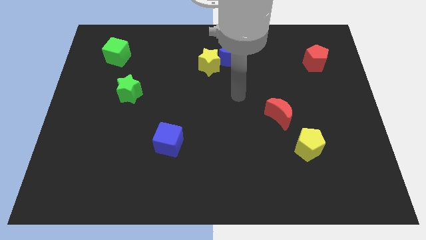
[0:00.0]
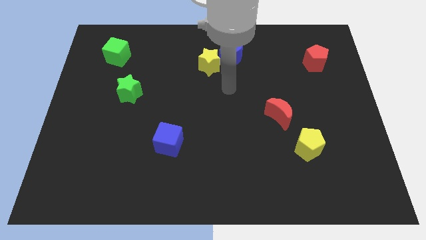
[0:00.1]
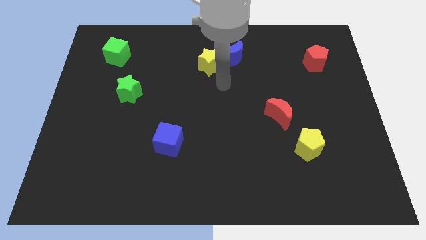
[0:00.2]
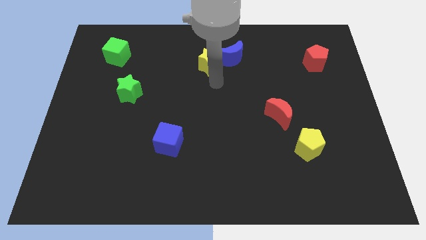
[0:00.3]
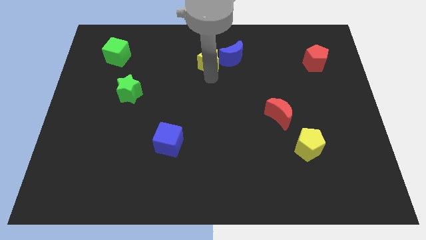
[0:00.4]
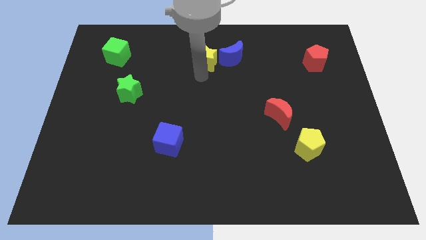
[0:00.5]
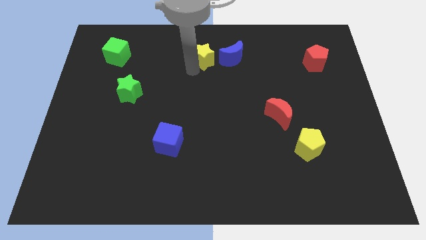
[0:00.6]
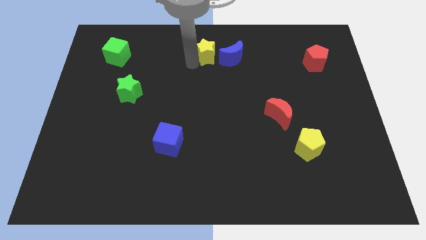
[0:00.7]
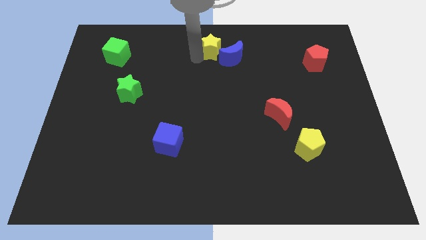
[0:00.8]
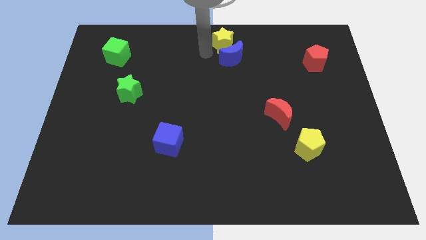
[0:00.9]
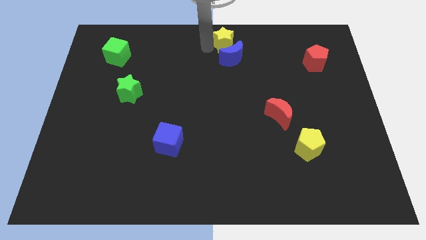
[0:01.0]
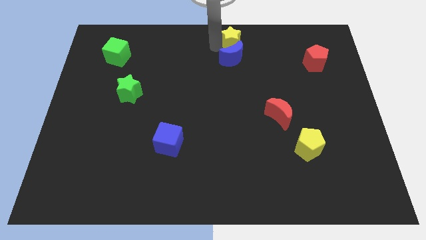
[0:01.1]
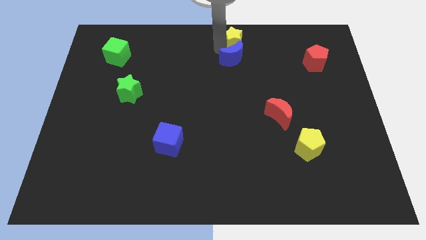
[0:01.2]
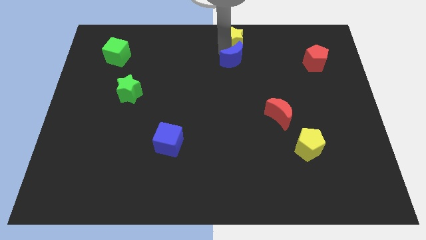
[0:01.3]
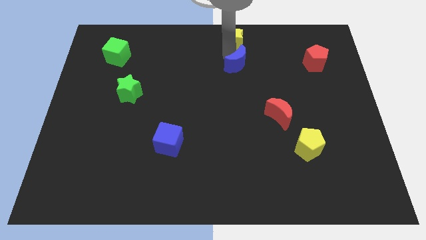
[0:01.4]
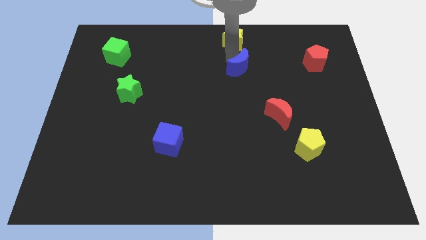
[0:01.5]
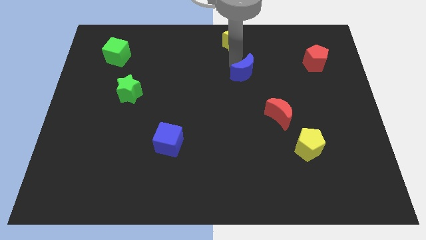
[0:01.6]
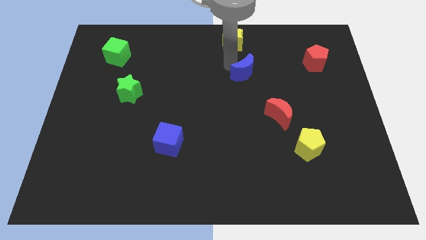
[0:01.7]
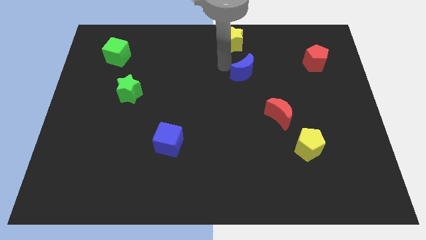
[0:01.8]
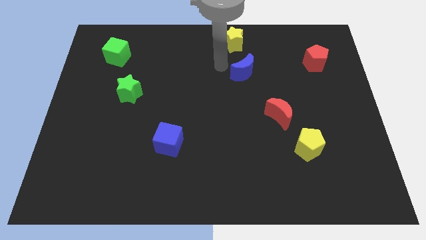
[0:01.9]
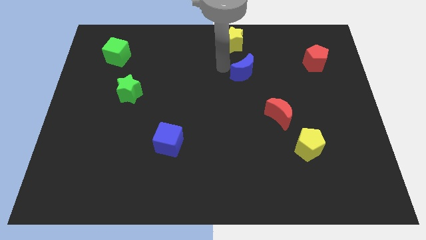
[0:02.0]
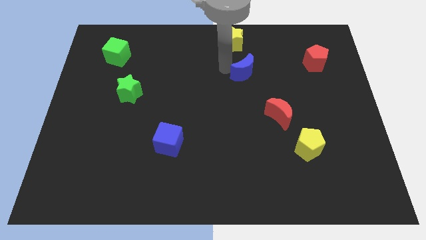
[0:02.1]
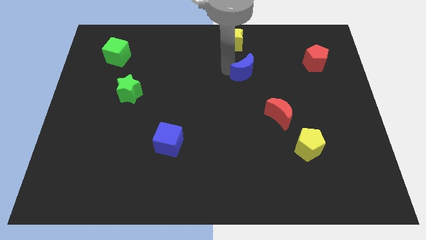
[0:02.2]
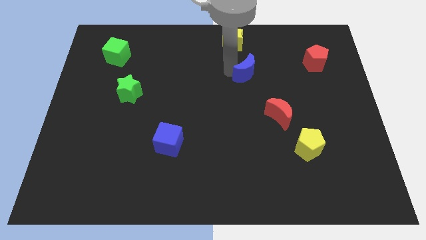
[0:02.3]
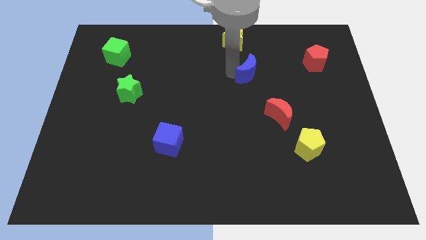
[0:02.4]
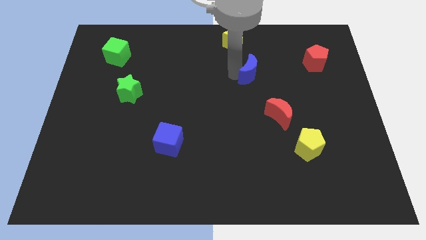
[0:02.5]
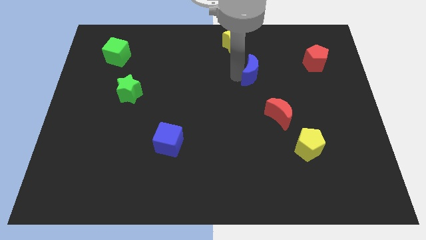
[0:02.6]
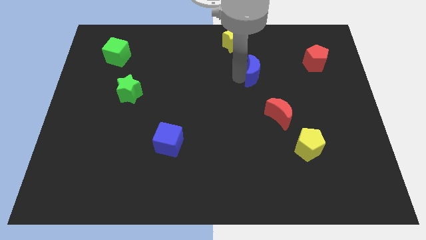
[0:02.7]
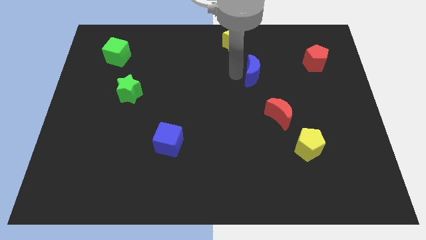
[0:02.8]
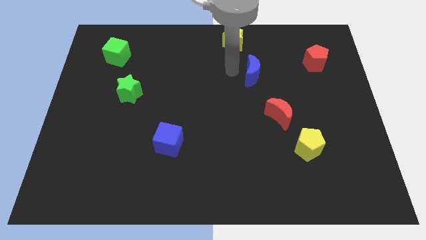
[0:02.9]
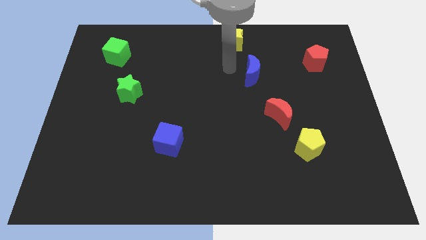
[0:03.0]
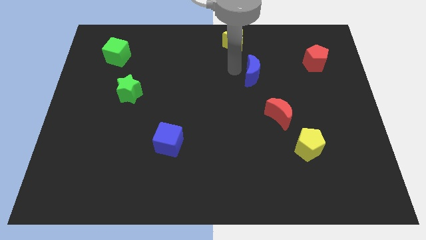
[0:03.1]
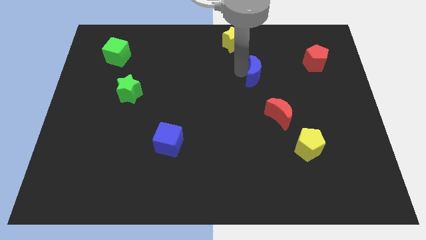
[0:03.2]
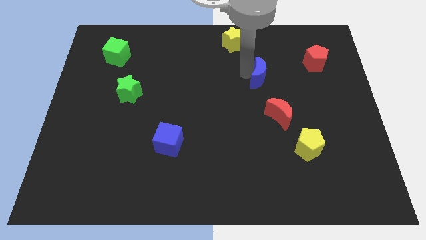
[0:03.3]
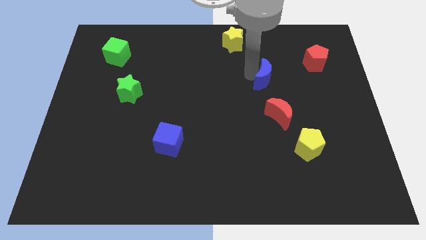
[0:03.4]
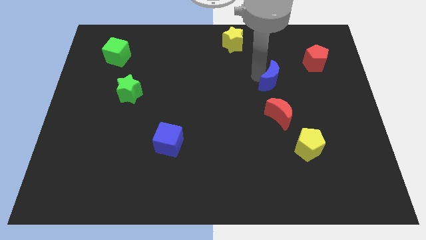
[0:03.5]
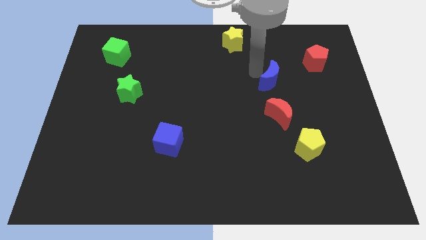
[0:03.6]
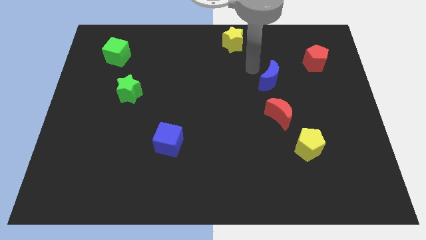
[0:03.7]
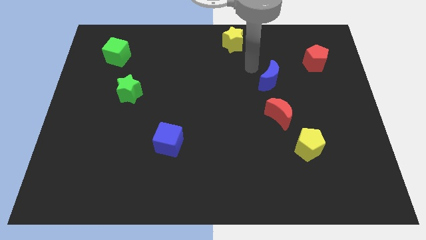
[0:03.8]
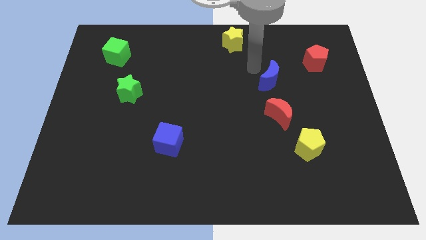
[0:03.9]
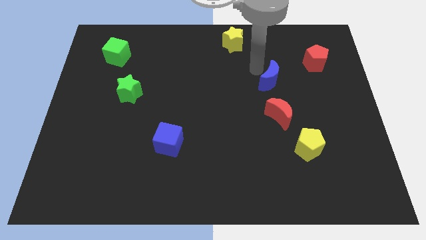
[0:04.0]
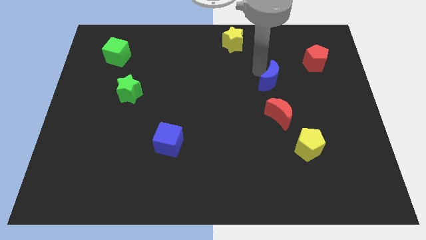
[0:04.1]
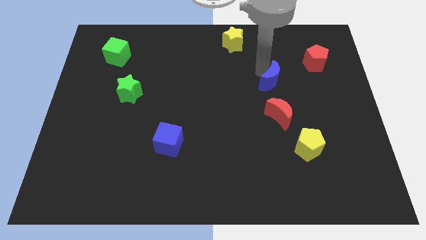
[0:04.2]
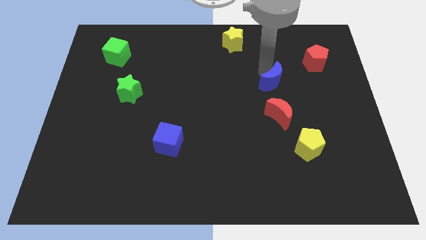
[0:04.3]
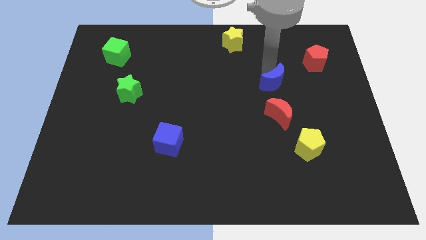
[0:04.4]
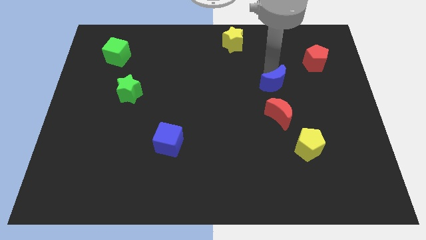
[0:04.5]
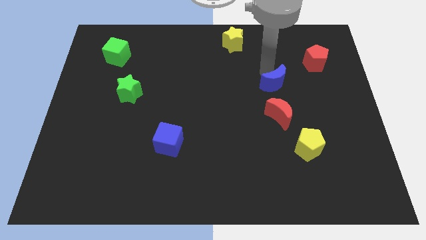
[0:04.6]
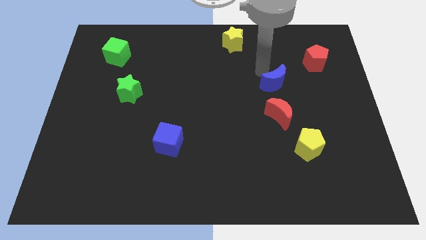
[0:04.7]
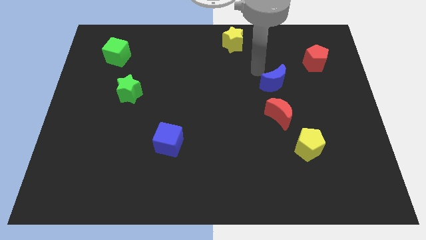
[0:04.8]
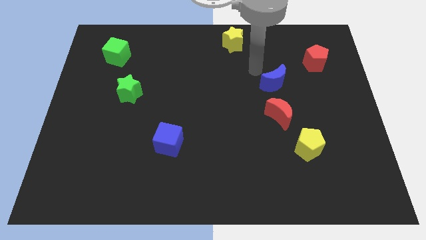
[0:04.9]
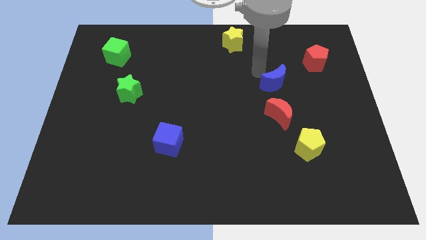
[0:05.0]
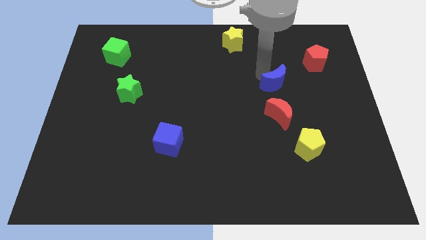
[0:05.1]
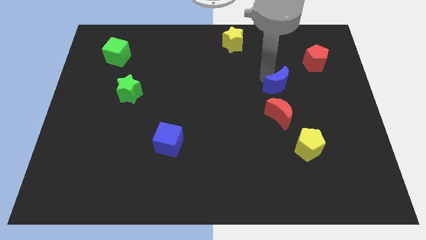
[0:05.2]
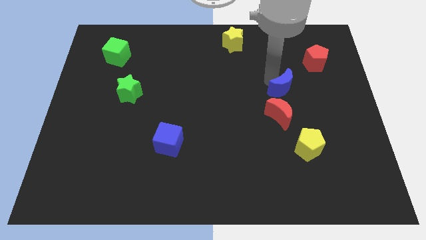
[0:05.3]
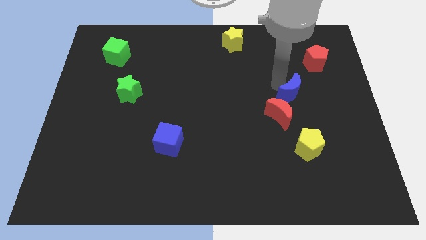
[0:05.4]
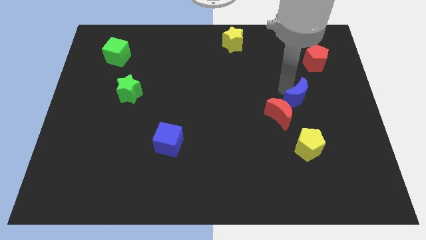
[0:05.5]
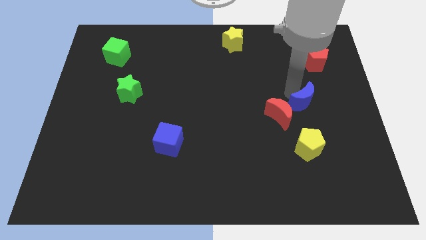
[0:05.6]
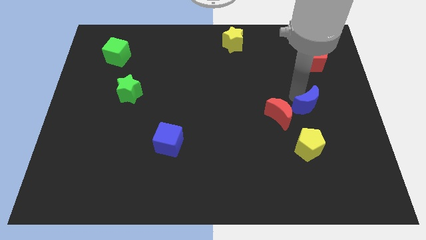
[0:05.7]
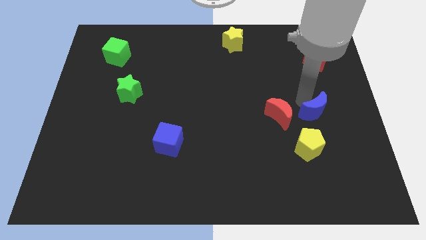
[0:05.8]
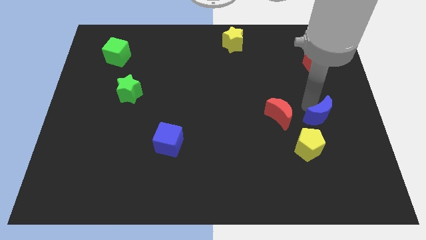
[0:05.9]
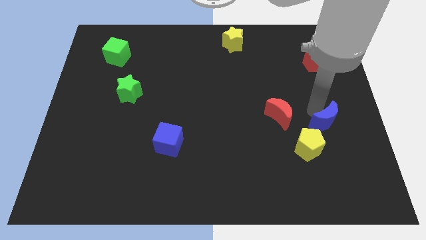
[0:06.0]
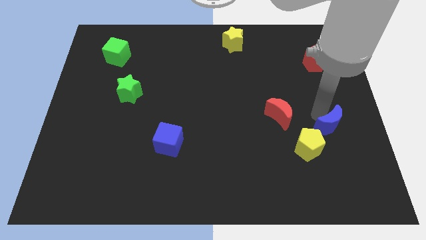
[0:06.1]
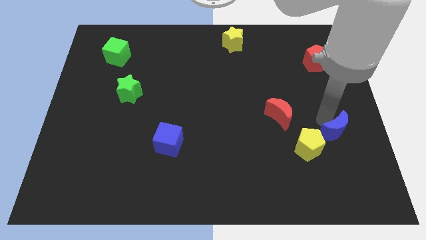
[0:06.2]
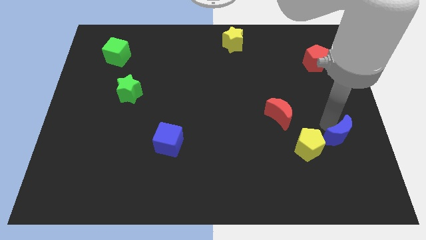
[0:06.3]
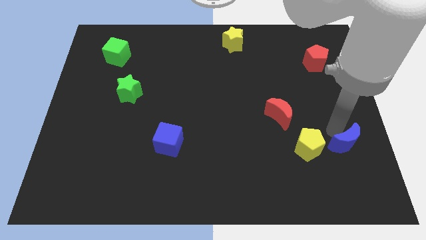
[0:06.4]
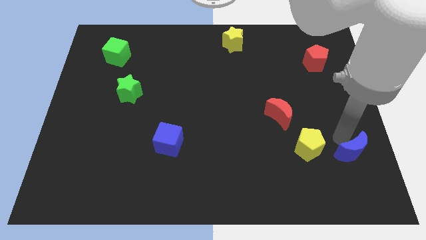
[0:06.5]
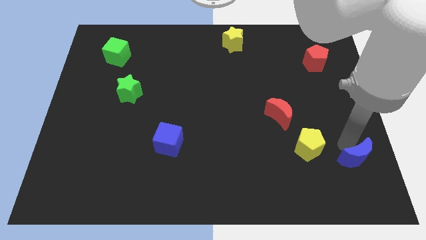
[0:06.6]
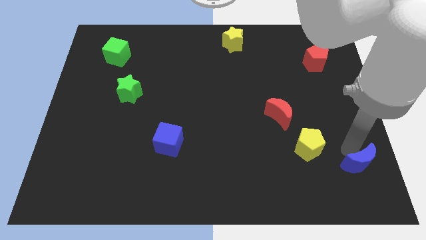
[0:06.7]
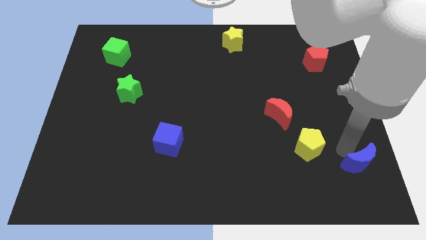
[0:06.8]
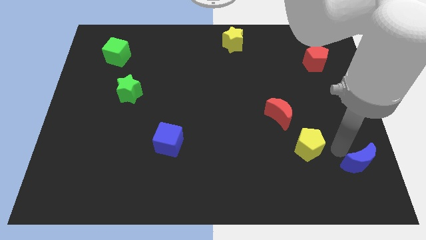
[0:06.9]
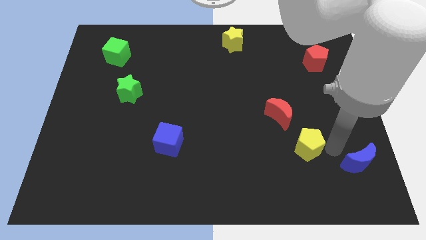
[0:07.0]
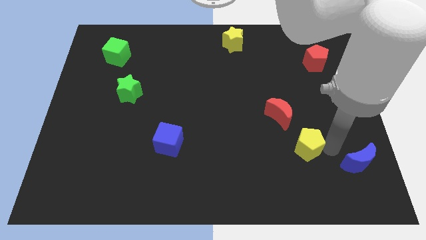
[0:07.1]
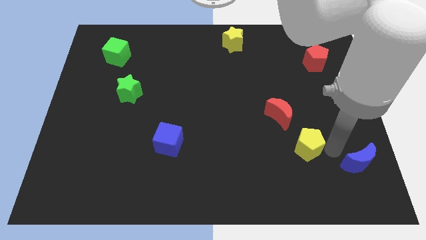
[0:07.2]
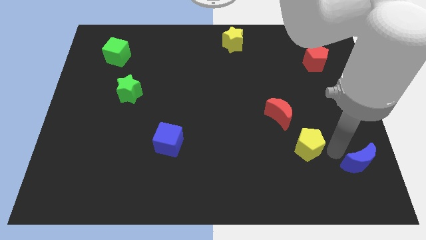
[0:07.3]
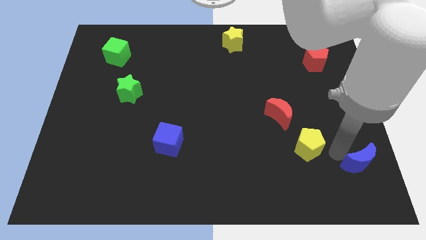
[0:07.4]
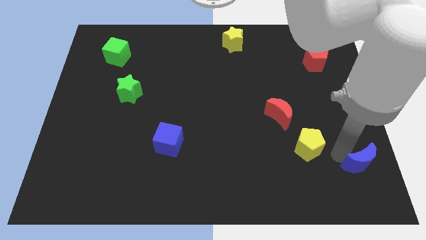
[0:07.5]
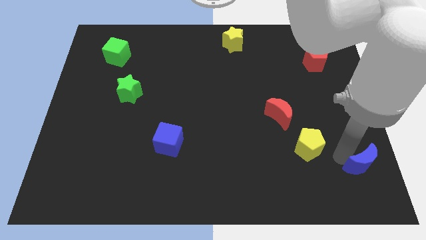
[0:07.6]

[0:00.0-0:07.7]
move the blue moon to the lower right corner
